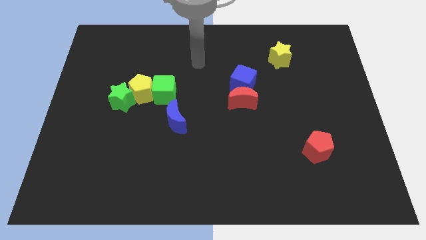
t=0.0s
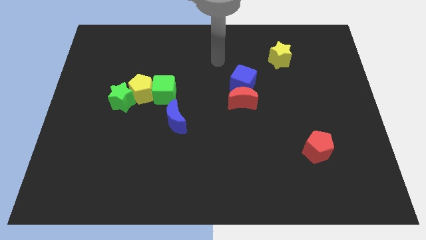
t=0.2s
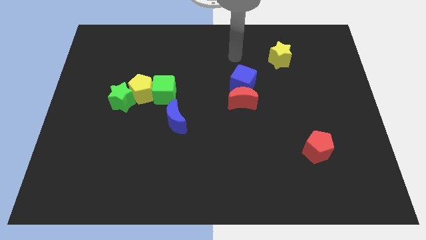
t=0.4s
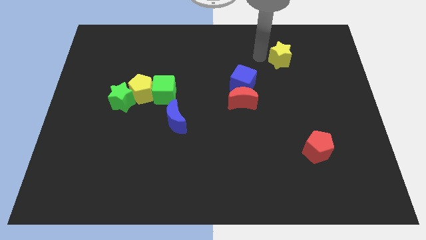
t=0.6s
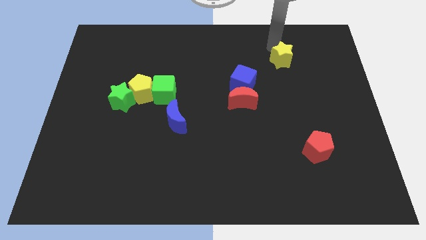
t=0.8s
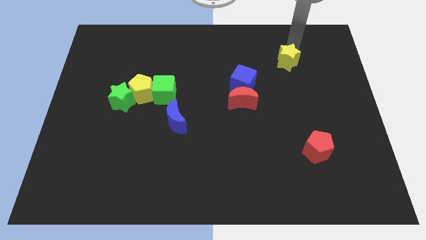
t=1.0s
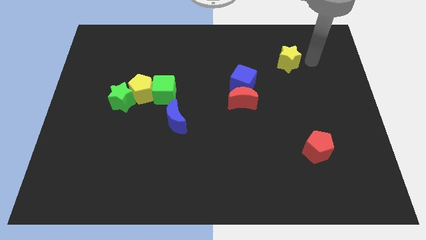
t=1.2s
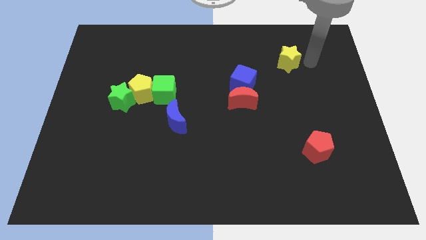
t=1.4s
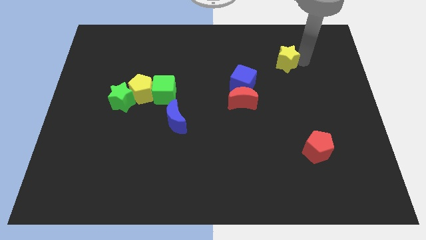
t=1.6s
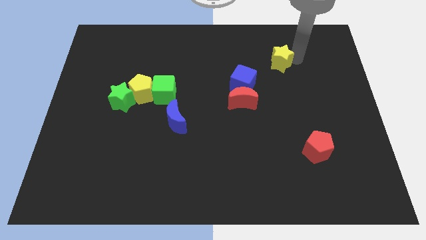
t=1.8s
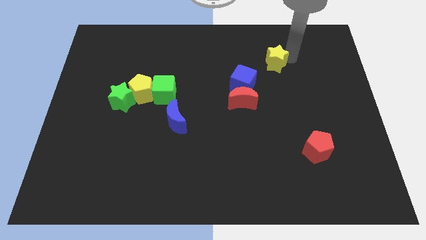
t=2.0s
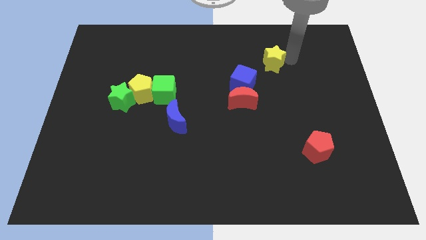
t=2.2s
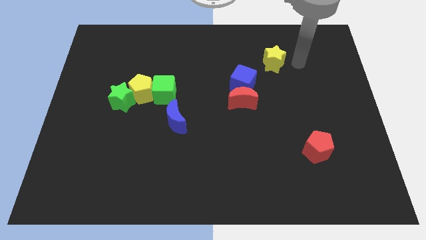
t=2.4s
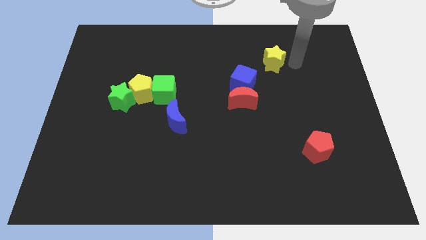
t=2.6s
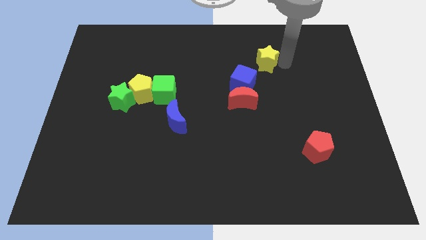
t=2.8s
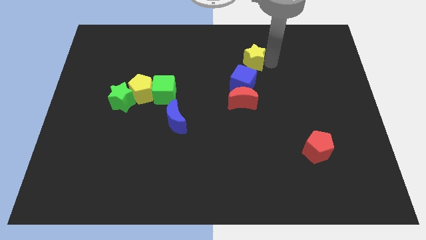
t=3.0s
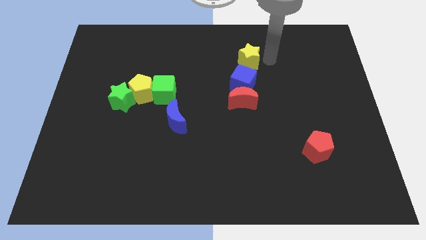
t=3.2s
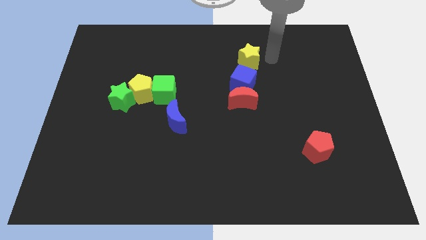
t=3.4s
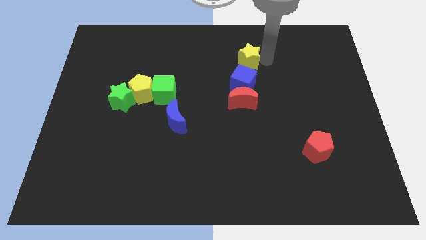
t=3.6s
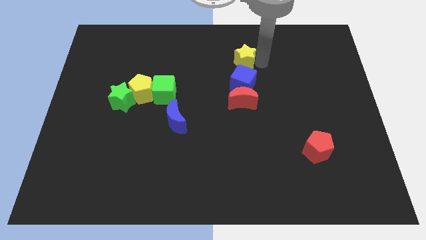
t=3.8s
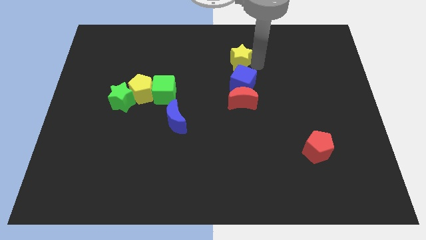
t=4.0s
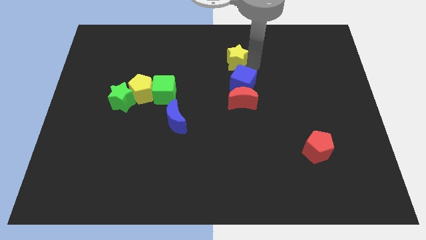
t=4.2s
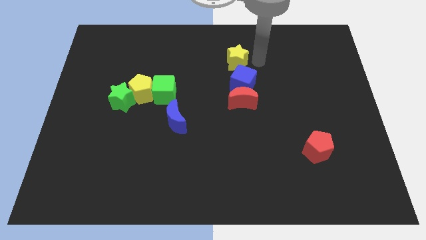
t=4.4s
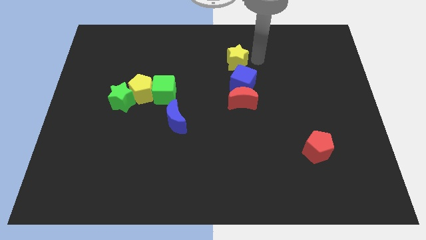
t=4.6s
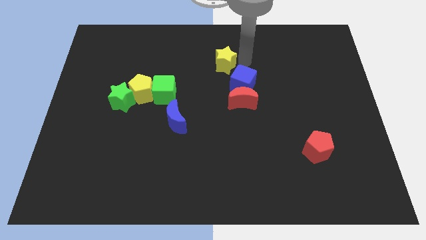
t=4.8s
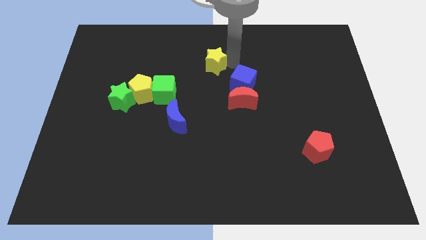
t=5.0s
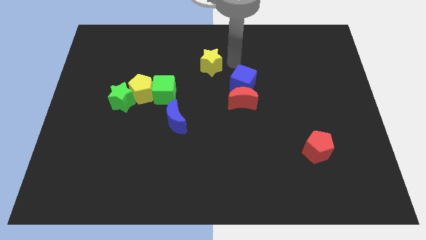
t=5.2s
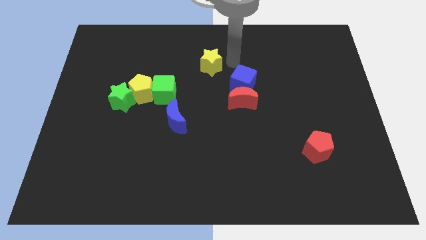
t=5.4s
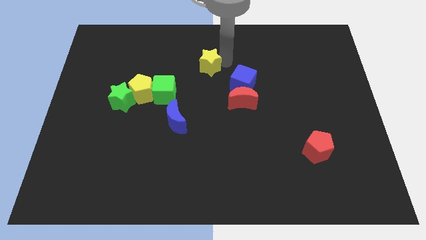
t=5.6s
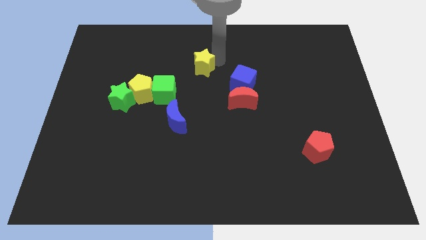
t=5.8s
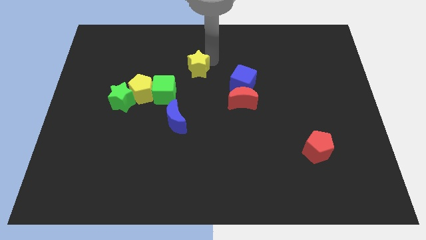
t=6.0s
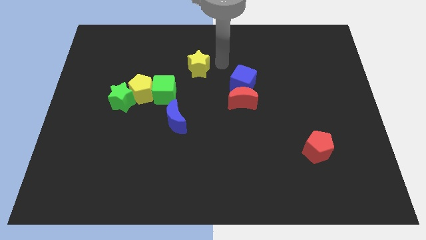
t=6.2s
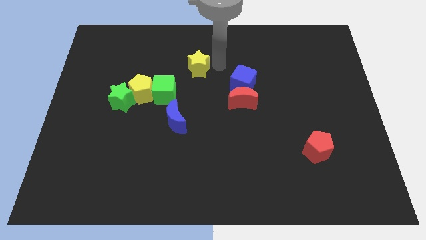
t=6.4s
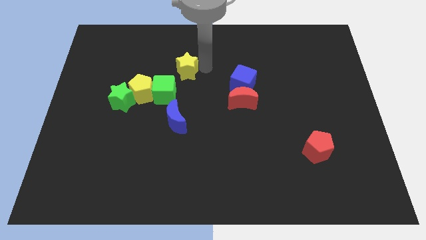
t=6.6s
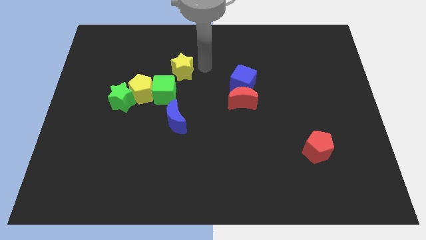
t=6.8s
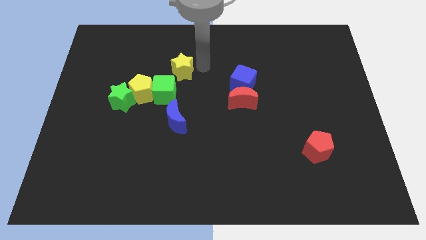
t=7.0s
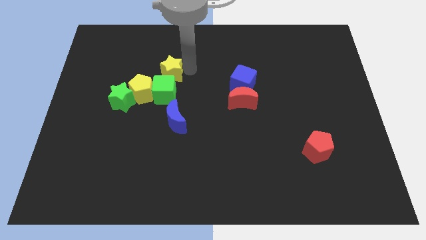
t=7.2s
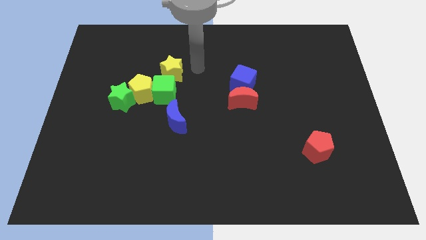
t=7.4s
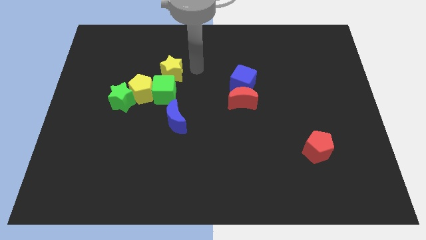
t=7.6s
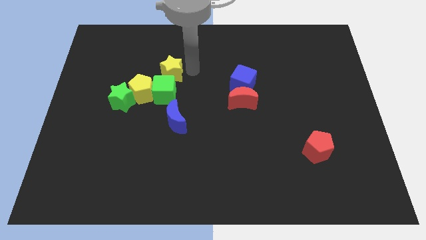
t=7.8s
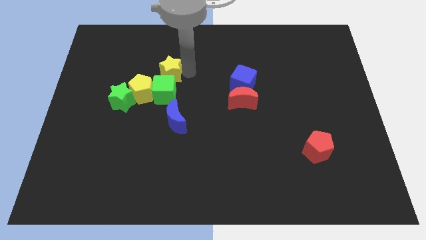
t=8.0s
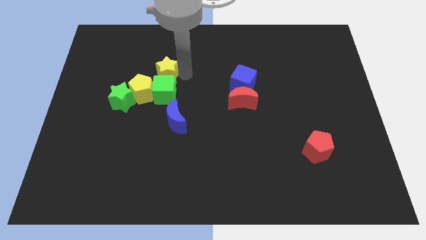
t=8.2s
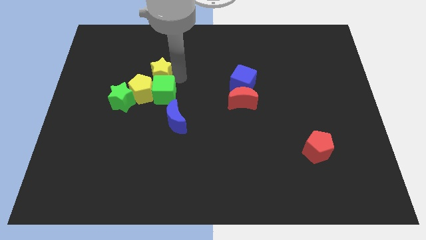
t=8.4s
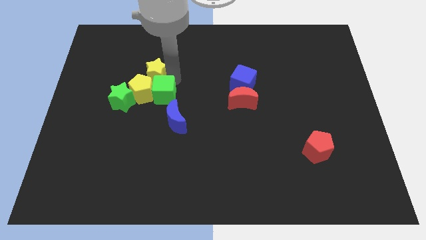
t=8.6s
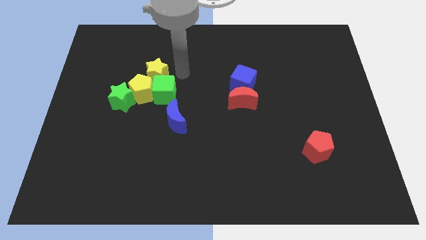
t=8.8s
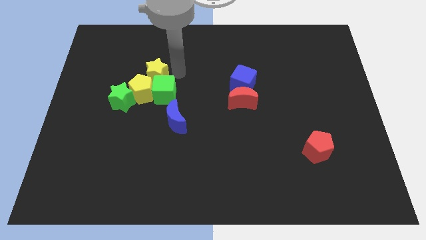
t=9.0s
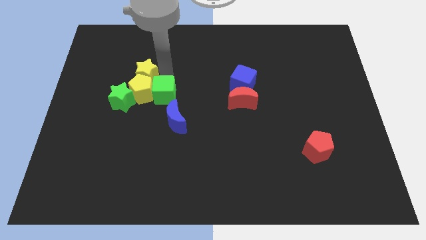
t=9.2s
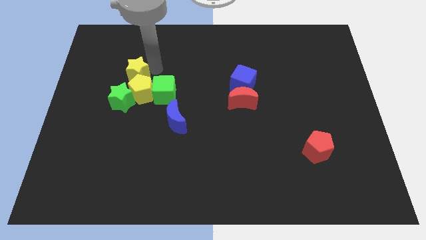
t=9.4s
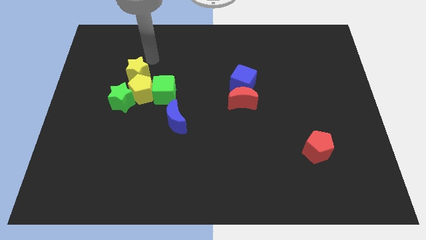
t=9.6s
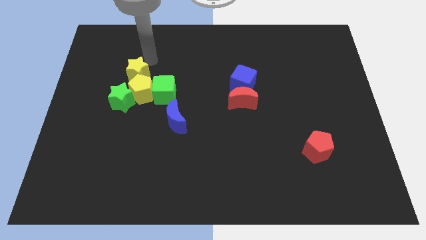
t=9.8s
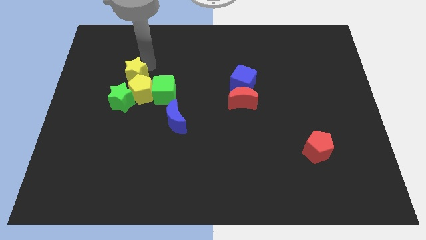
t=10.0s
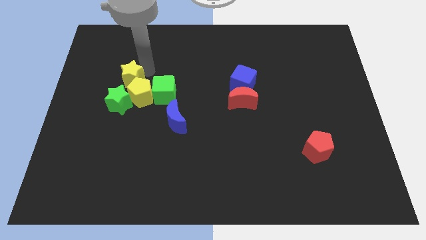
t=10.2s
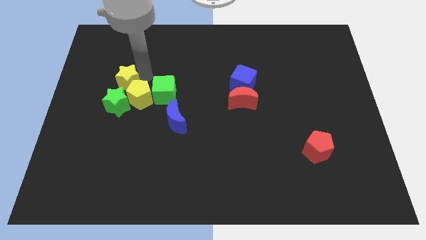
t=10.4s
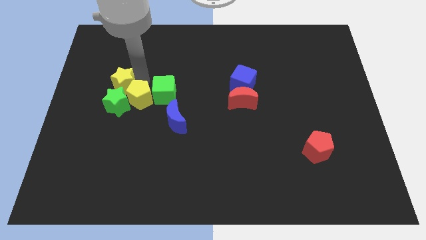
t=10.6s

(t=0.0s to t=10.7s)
move the yellow star towards the green star

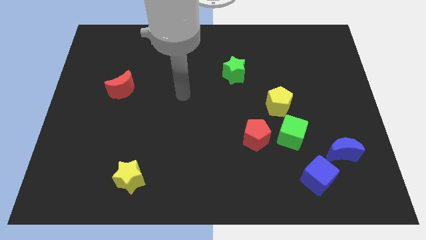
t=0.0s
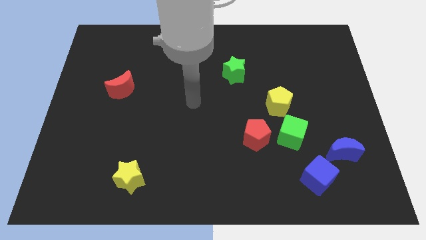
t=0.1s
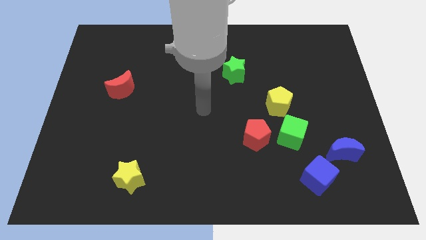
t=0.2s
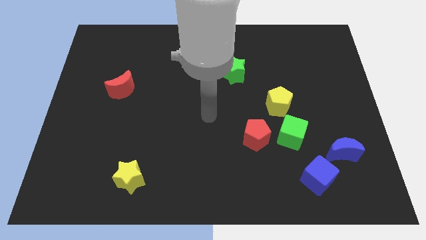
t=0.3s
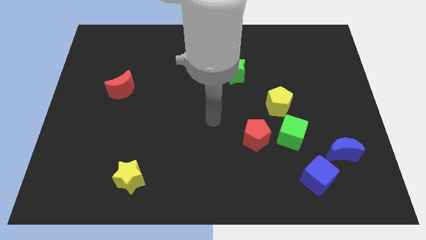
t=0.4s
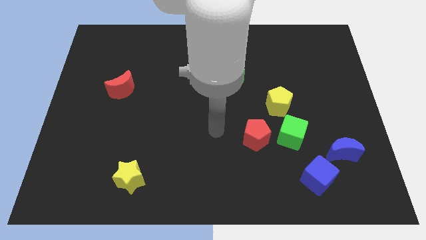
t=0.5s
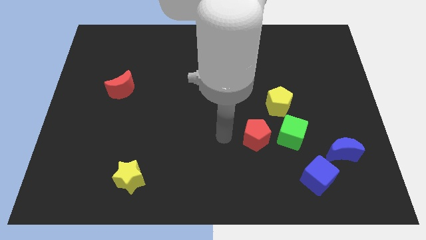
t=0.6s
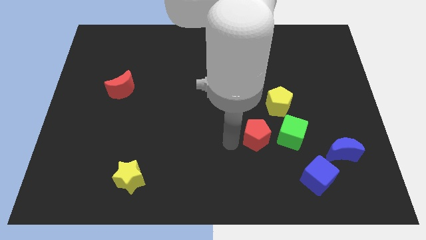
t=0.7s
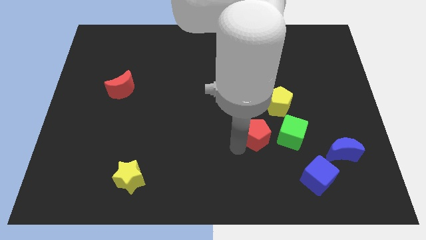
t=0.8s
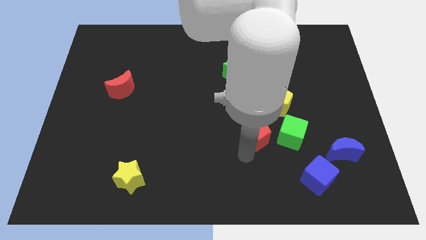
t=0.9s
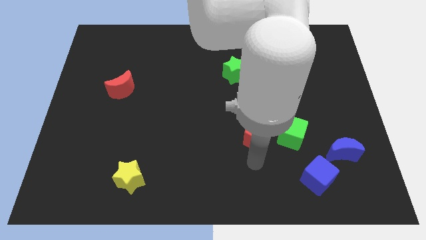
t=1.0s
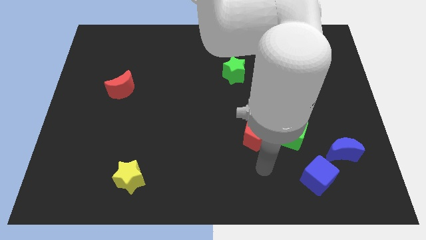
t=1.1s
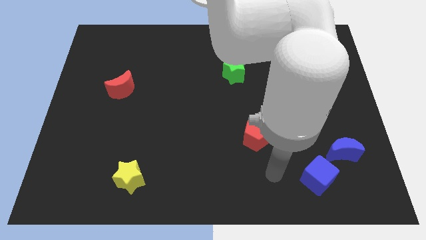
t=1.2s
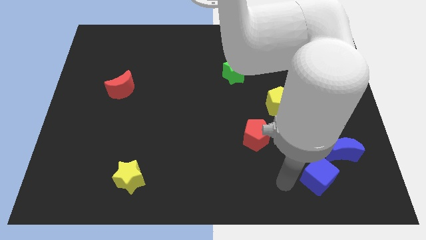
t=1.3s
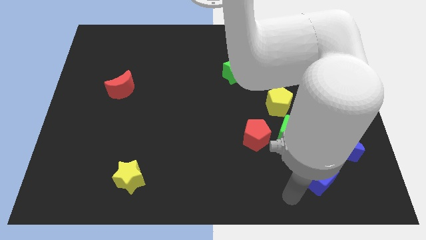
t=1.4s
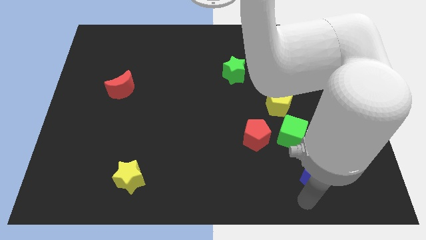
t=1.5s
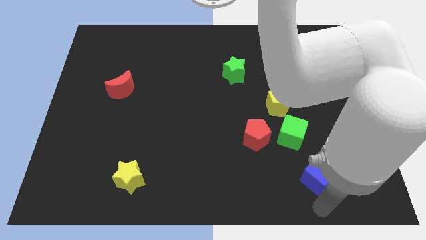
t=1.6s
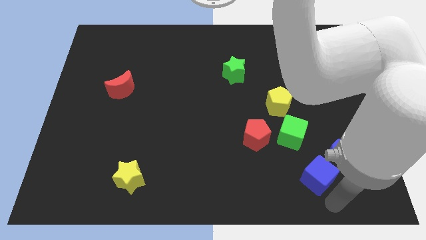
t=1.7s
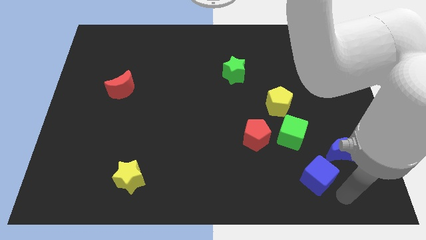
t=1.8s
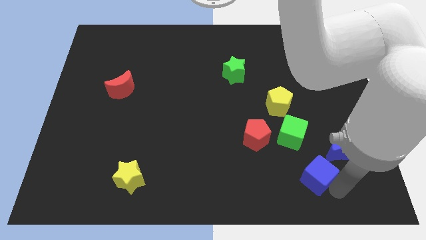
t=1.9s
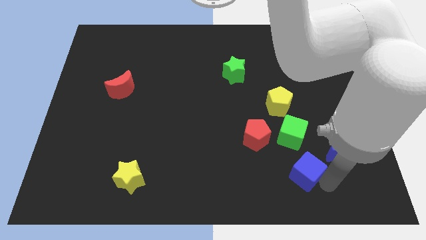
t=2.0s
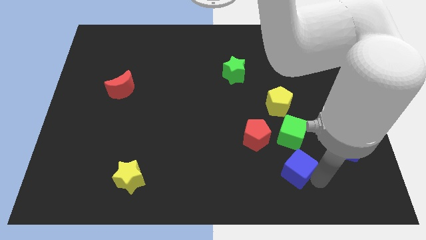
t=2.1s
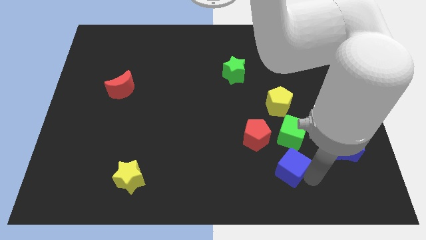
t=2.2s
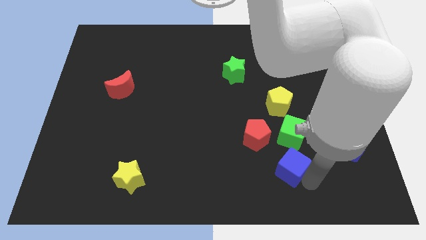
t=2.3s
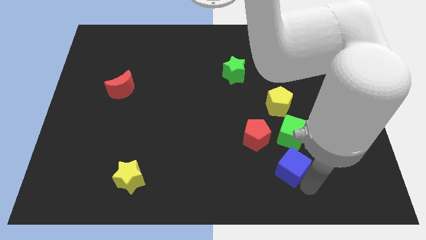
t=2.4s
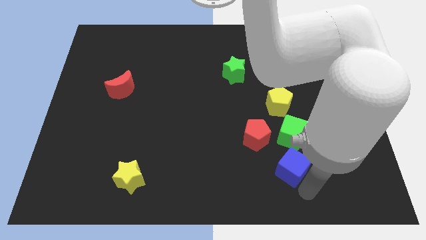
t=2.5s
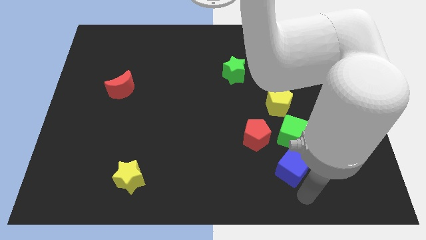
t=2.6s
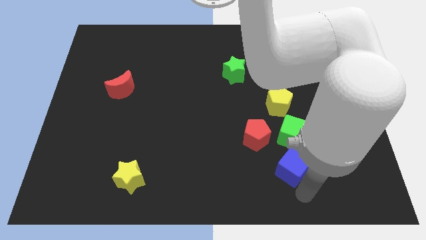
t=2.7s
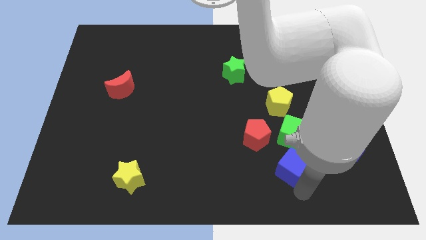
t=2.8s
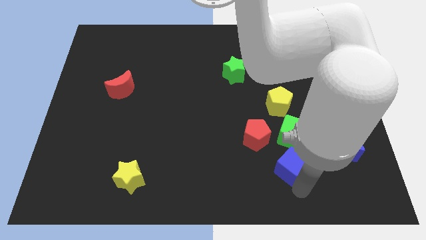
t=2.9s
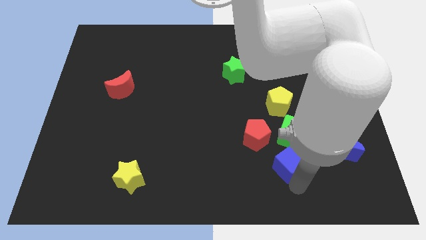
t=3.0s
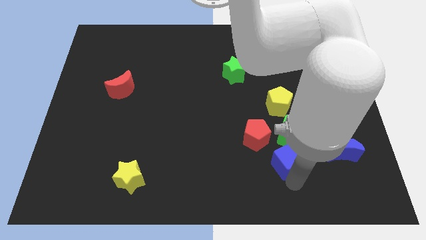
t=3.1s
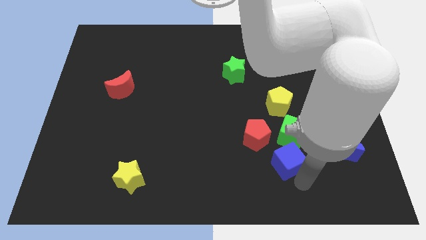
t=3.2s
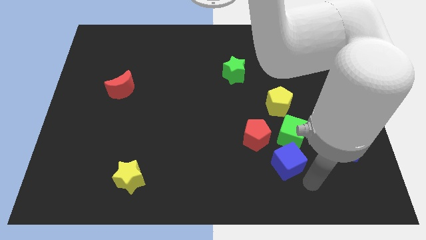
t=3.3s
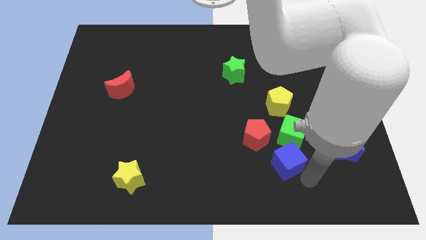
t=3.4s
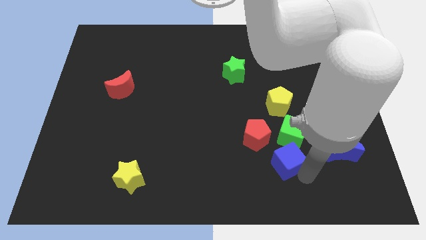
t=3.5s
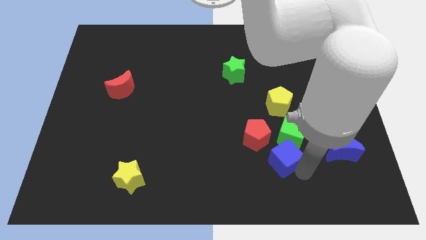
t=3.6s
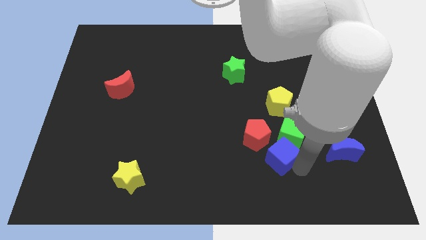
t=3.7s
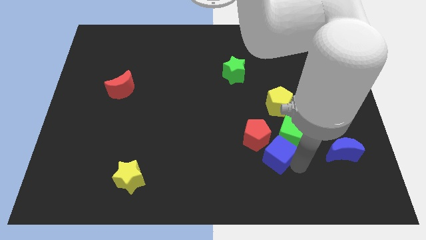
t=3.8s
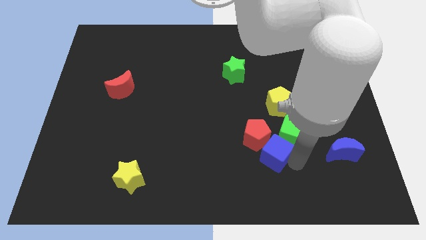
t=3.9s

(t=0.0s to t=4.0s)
slide the blue cube to the red pentagon
